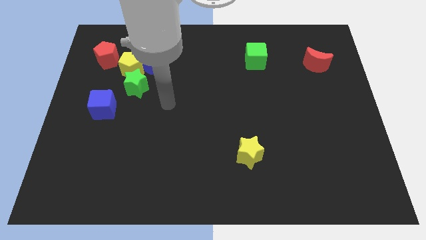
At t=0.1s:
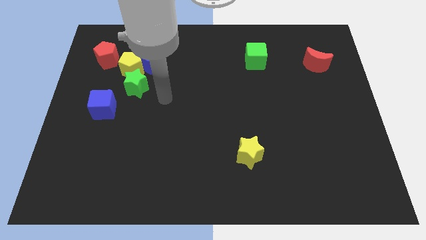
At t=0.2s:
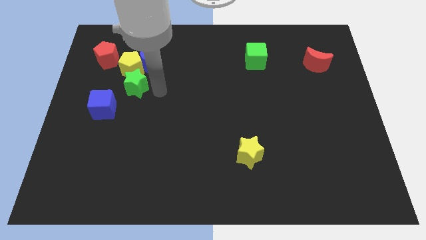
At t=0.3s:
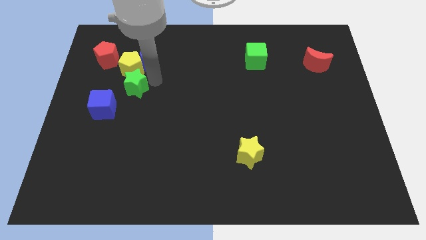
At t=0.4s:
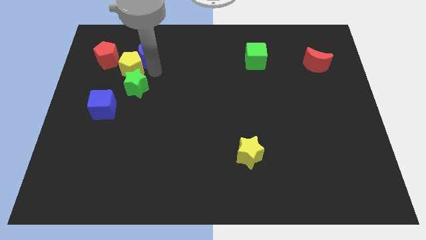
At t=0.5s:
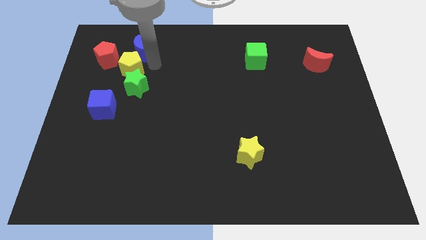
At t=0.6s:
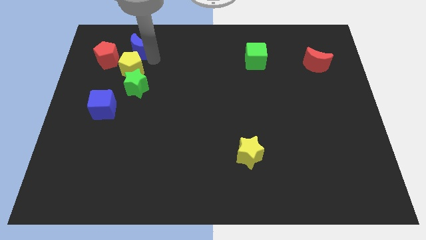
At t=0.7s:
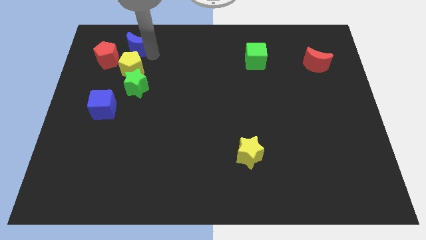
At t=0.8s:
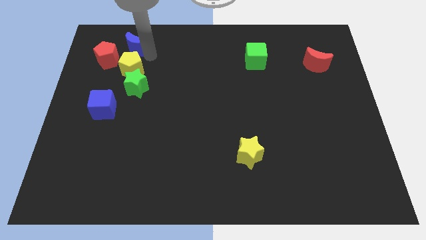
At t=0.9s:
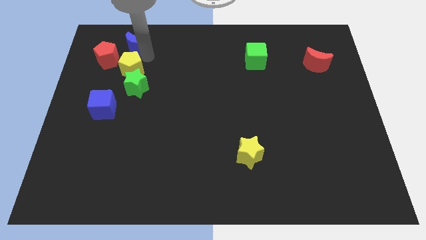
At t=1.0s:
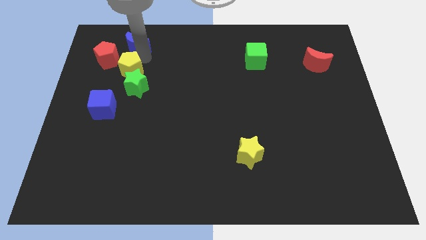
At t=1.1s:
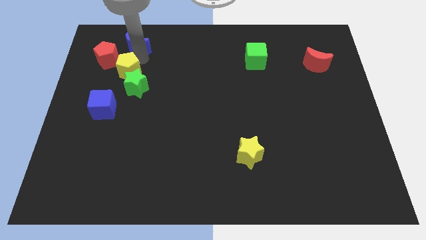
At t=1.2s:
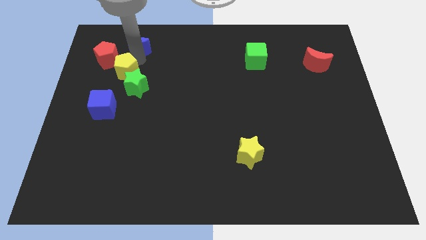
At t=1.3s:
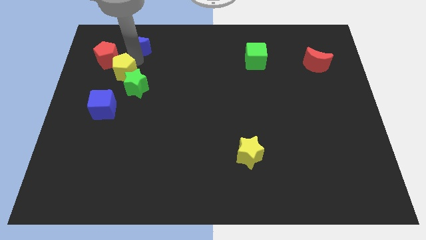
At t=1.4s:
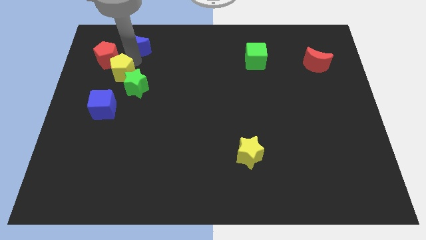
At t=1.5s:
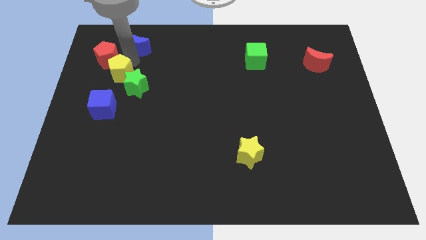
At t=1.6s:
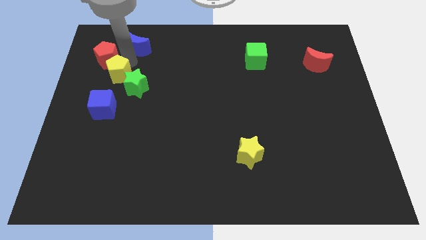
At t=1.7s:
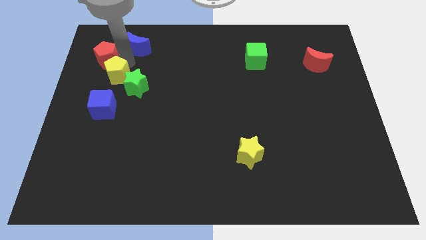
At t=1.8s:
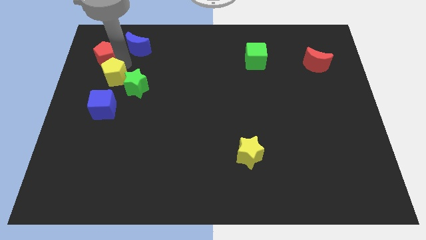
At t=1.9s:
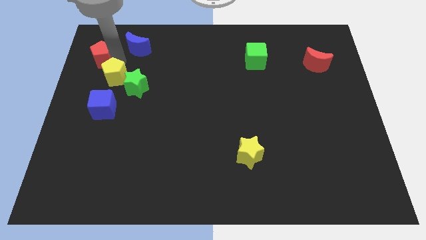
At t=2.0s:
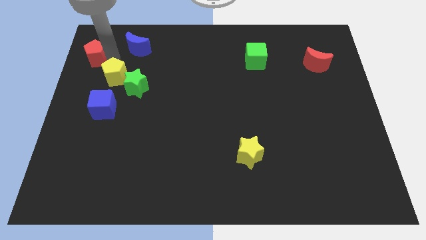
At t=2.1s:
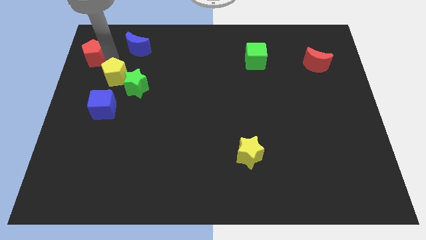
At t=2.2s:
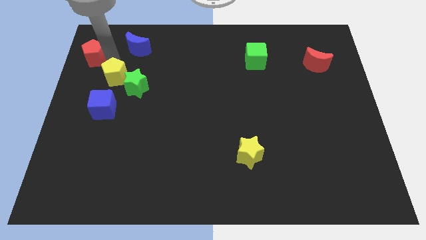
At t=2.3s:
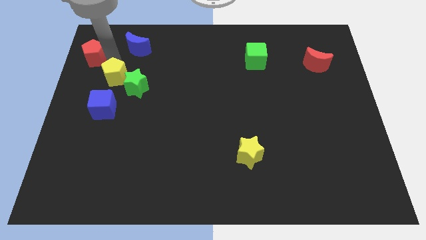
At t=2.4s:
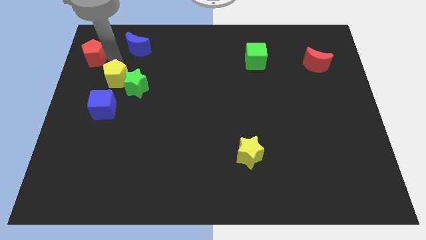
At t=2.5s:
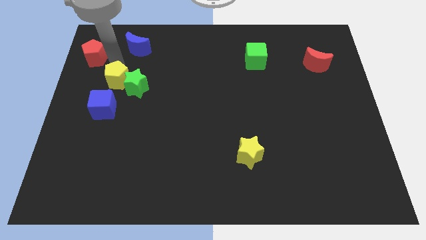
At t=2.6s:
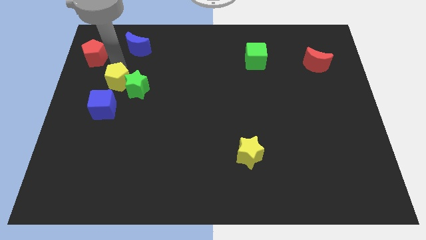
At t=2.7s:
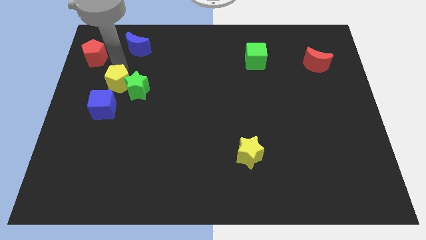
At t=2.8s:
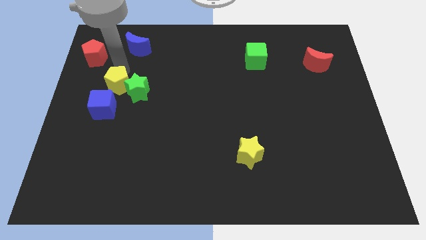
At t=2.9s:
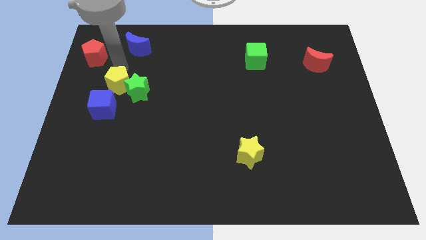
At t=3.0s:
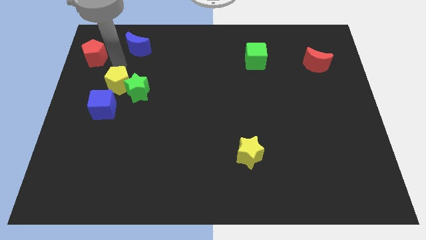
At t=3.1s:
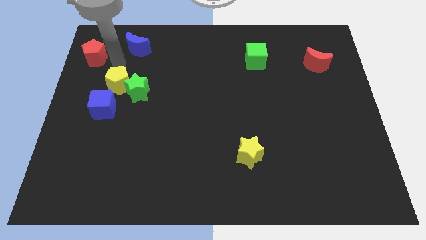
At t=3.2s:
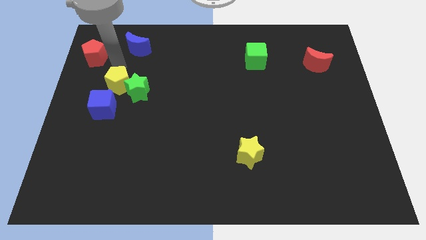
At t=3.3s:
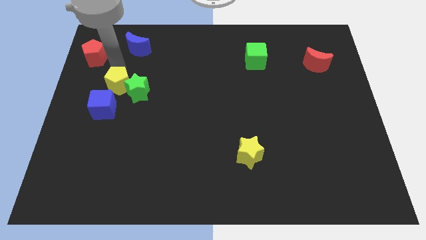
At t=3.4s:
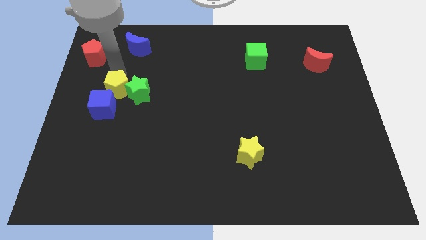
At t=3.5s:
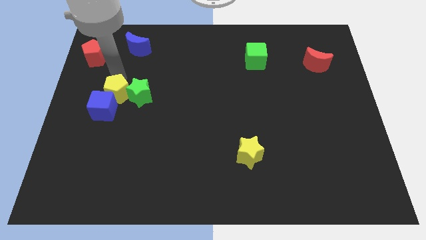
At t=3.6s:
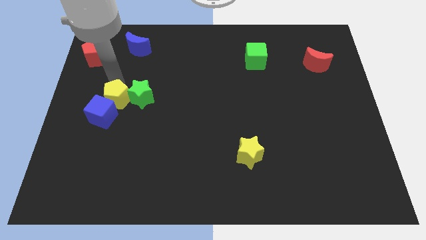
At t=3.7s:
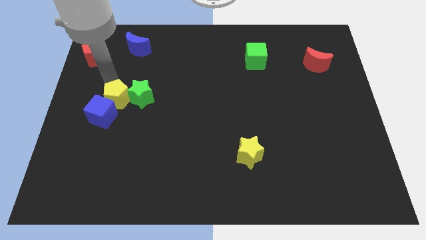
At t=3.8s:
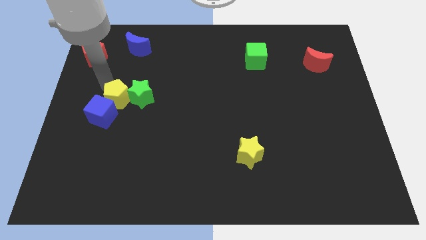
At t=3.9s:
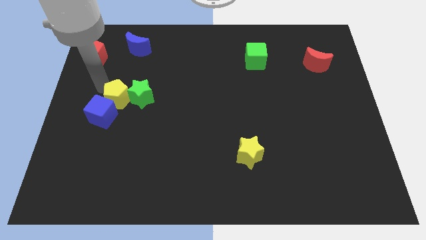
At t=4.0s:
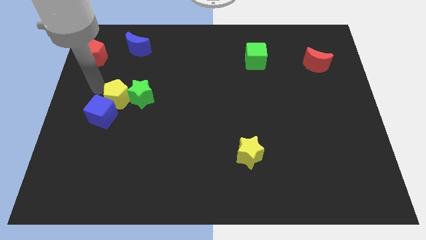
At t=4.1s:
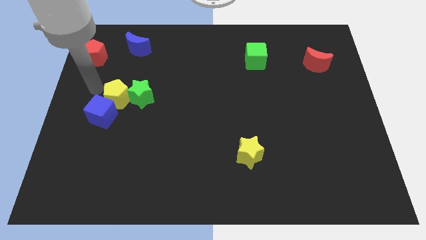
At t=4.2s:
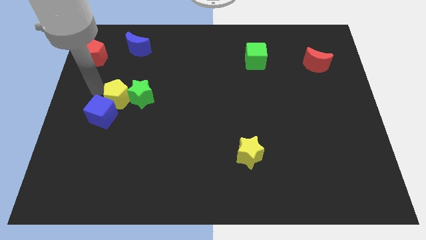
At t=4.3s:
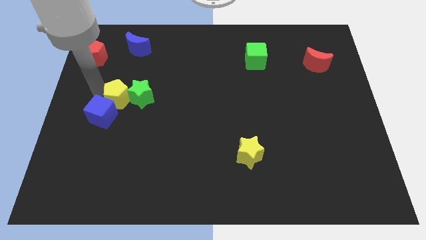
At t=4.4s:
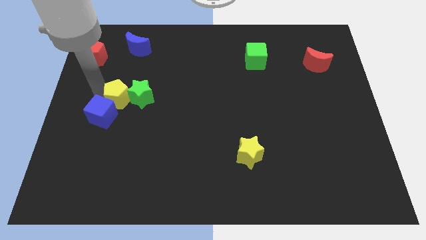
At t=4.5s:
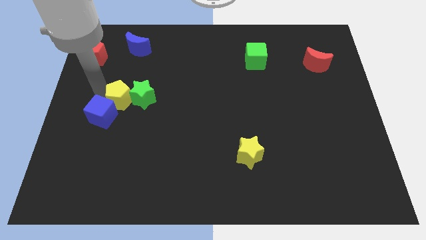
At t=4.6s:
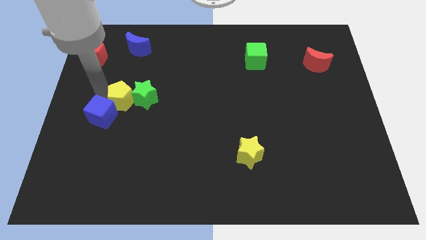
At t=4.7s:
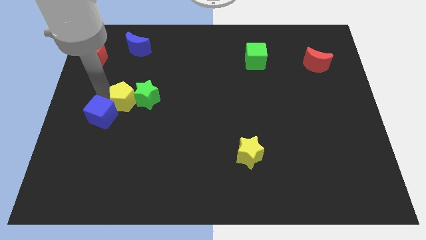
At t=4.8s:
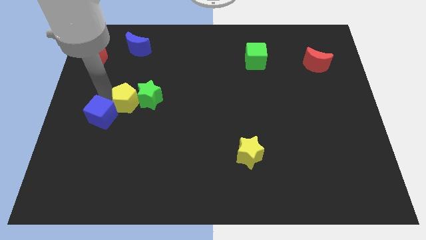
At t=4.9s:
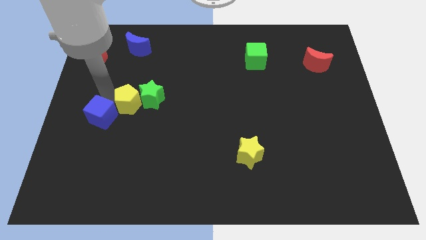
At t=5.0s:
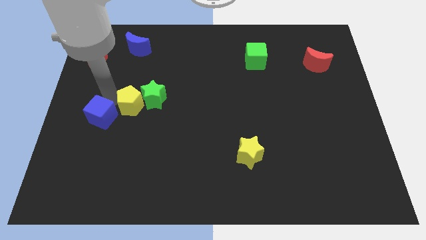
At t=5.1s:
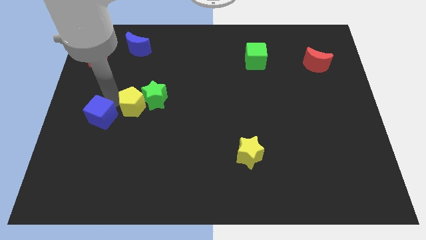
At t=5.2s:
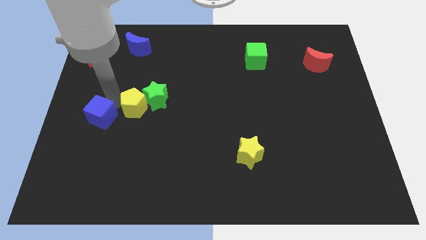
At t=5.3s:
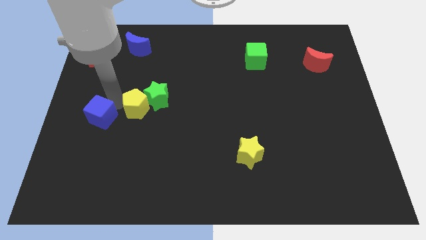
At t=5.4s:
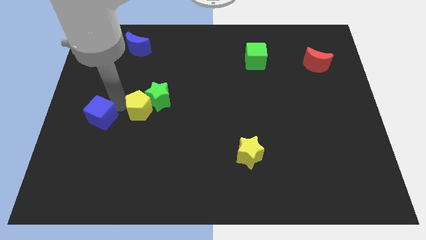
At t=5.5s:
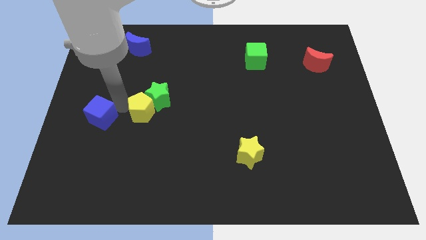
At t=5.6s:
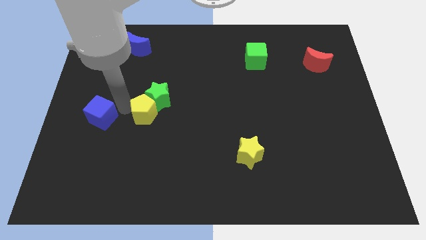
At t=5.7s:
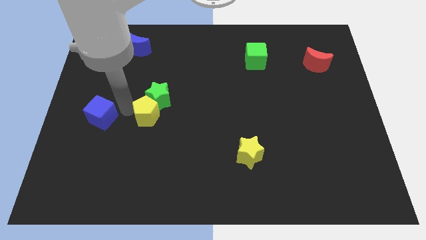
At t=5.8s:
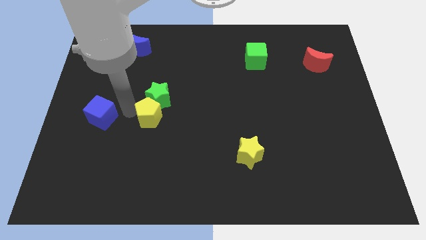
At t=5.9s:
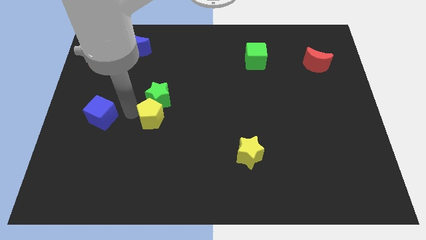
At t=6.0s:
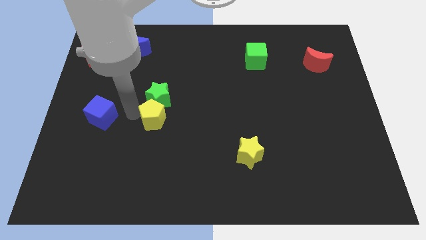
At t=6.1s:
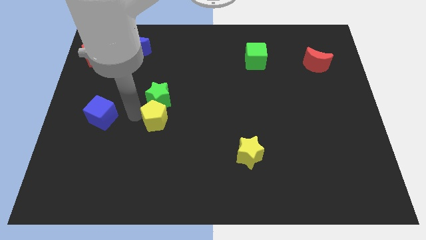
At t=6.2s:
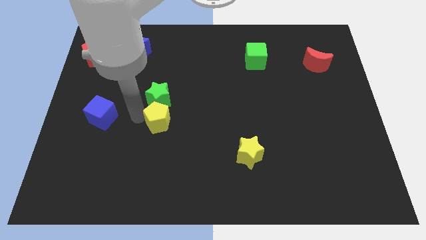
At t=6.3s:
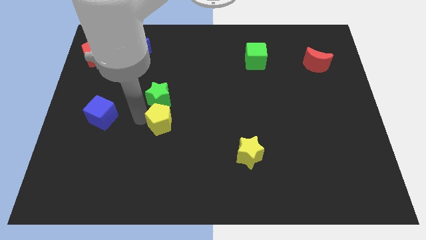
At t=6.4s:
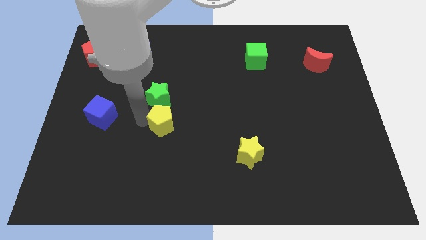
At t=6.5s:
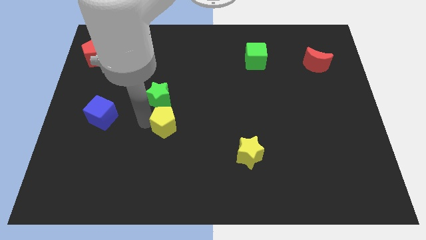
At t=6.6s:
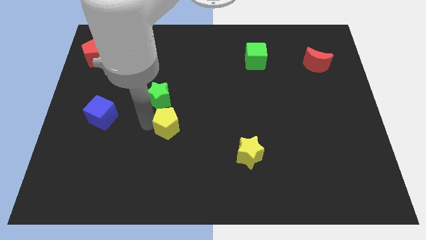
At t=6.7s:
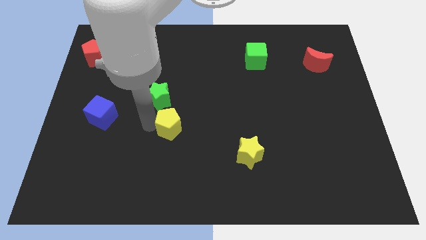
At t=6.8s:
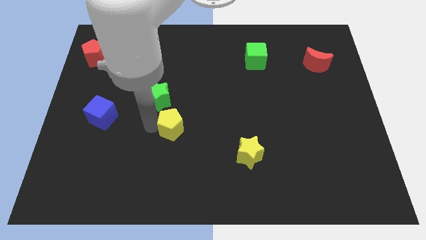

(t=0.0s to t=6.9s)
slide the yellow pentagon down and then to the right

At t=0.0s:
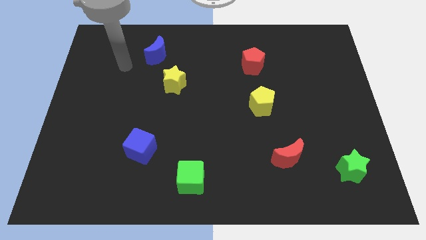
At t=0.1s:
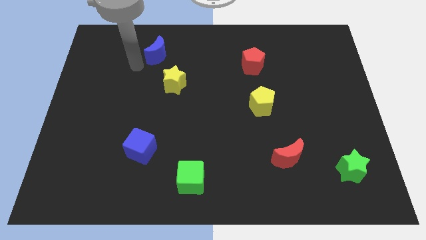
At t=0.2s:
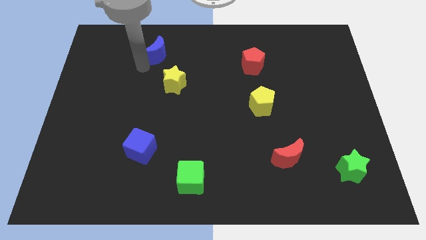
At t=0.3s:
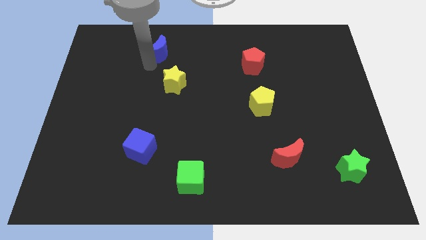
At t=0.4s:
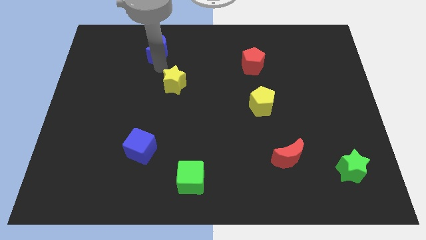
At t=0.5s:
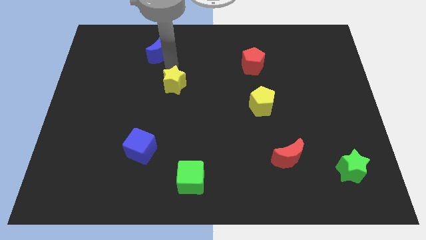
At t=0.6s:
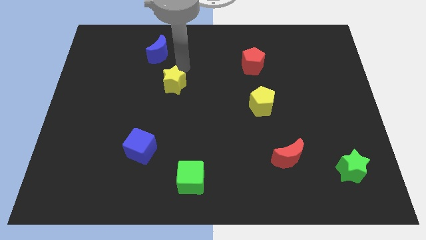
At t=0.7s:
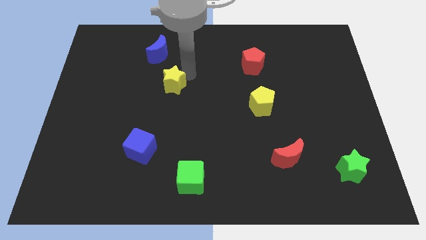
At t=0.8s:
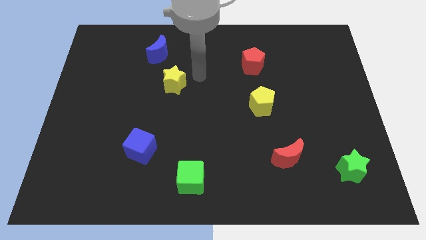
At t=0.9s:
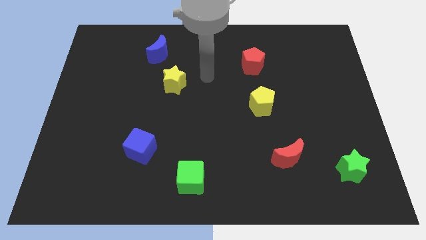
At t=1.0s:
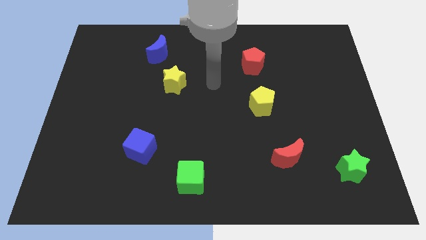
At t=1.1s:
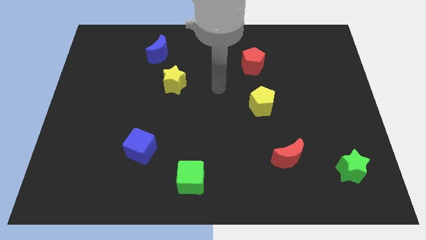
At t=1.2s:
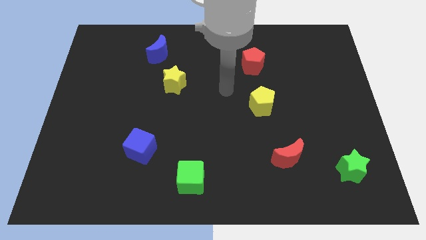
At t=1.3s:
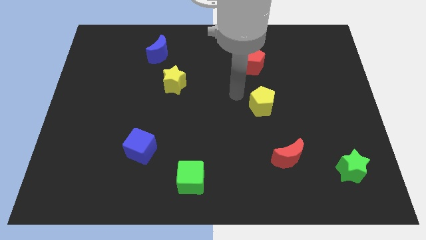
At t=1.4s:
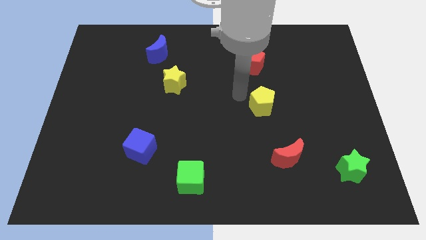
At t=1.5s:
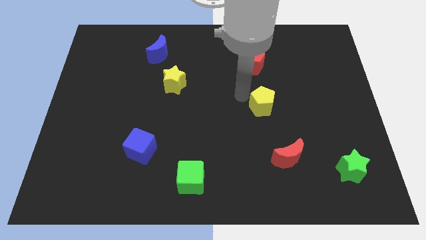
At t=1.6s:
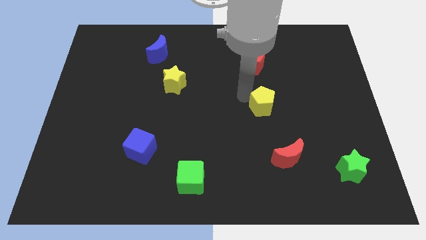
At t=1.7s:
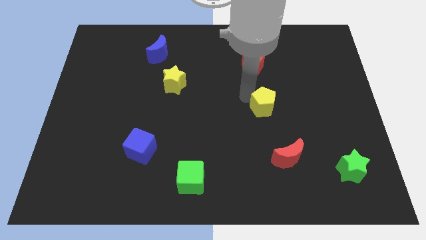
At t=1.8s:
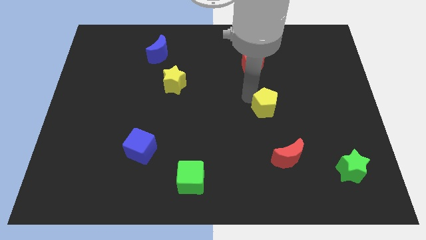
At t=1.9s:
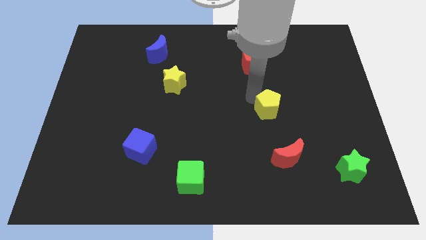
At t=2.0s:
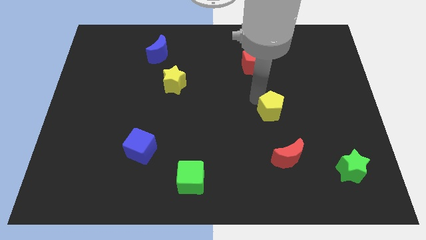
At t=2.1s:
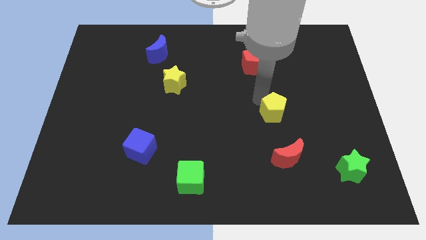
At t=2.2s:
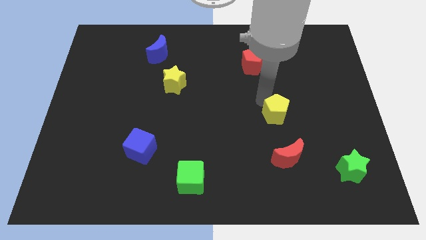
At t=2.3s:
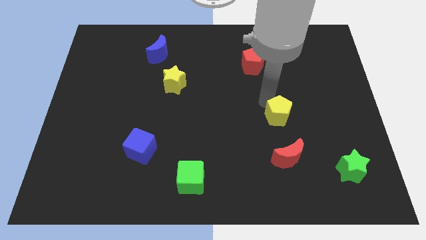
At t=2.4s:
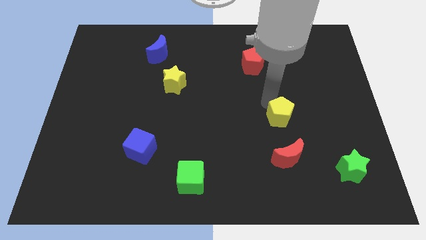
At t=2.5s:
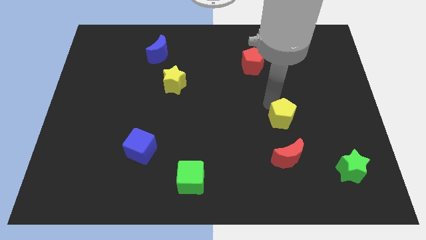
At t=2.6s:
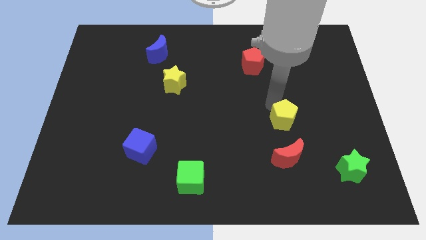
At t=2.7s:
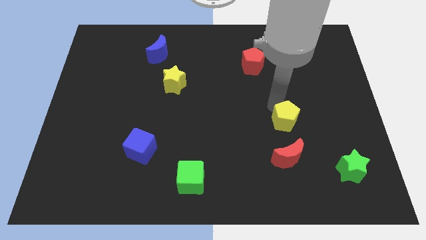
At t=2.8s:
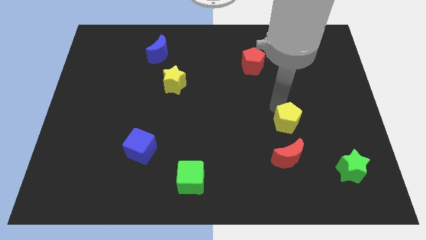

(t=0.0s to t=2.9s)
move the yellow pentagon a little down and then to the right
